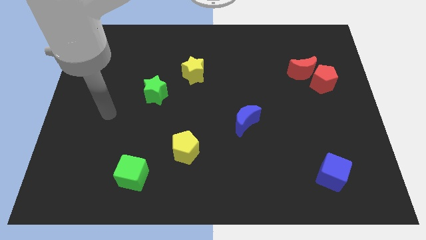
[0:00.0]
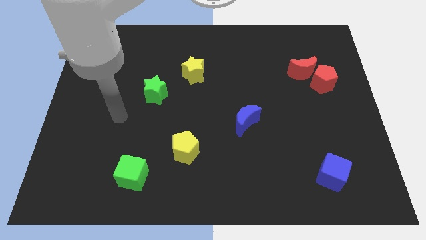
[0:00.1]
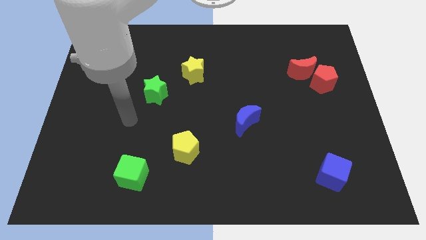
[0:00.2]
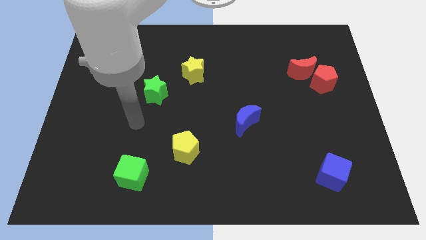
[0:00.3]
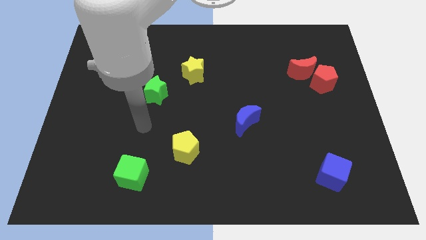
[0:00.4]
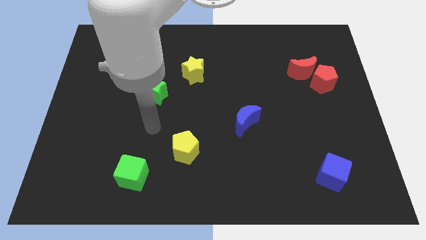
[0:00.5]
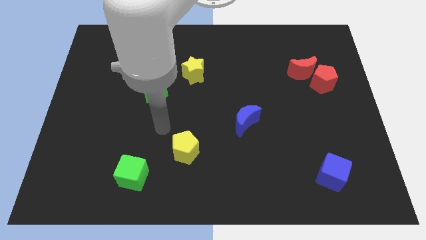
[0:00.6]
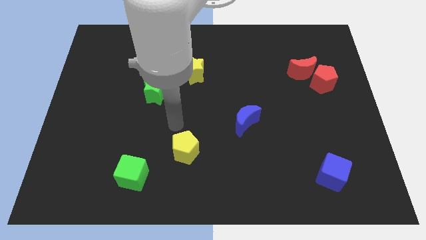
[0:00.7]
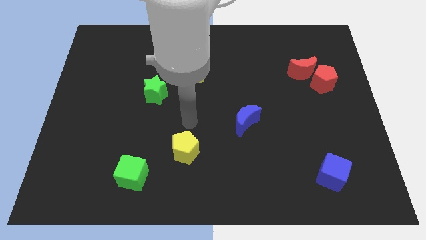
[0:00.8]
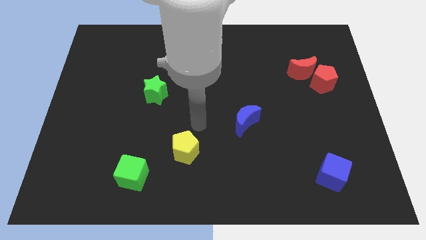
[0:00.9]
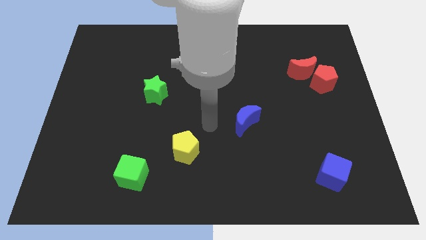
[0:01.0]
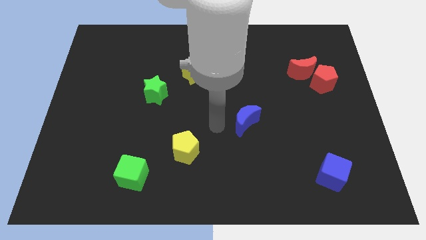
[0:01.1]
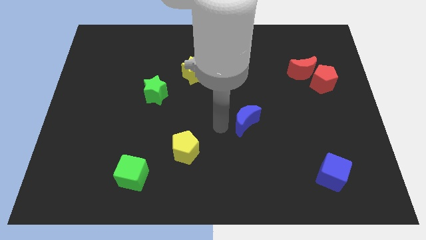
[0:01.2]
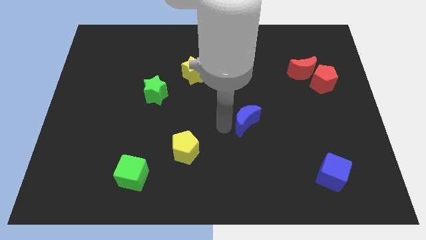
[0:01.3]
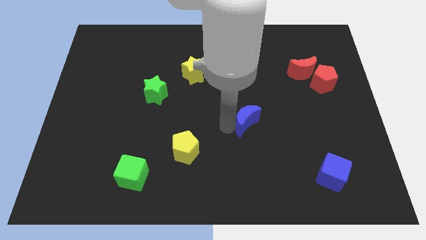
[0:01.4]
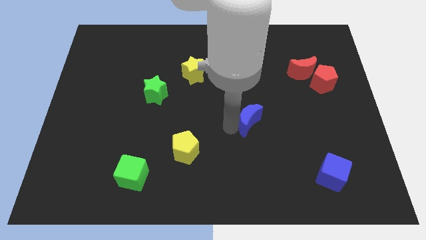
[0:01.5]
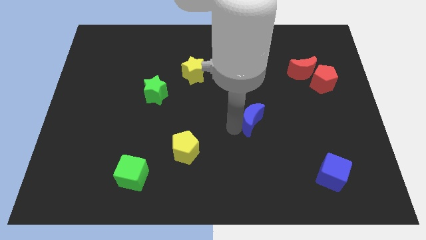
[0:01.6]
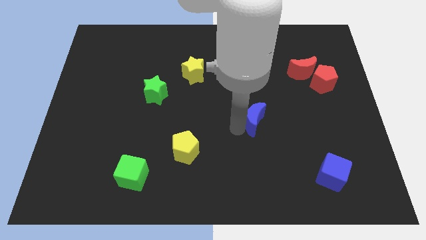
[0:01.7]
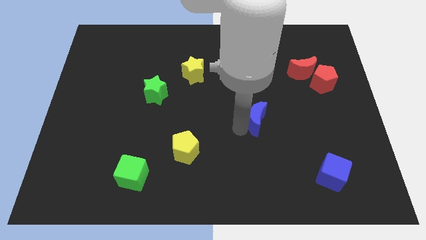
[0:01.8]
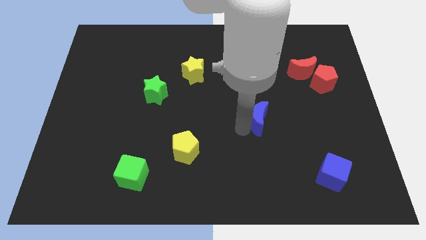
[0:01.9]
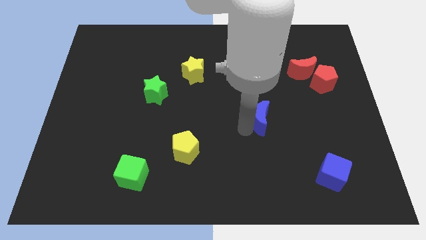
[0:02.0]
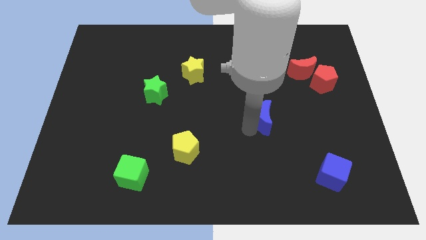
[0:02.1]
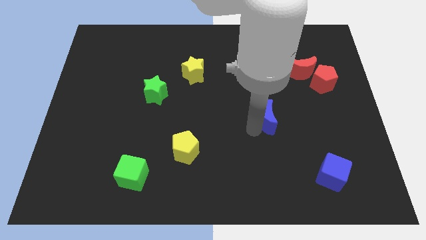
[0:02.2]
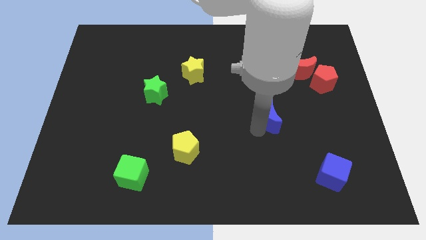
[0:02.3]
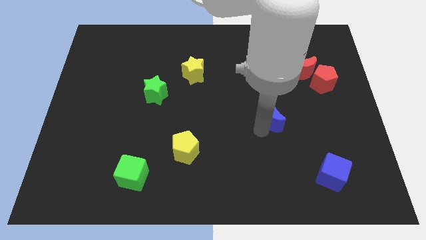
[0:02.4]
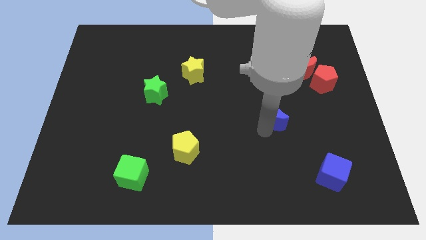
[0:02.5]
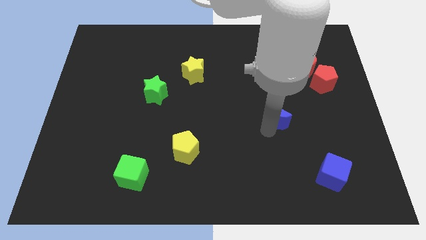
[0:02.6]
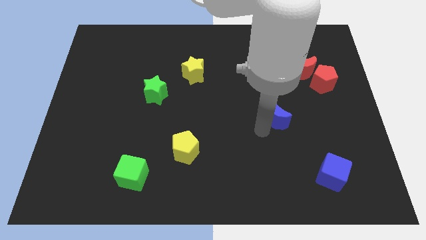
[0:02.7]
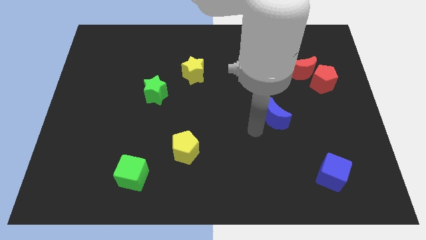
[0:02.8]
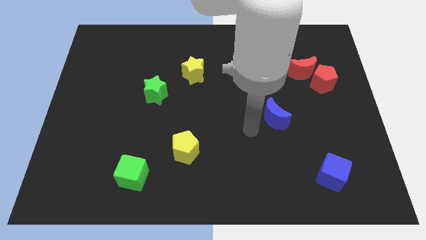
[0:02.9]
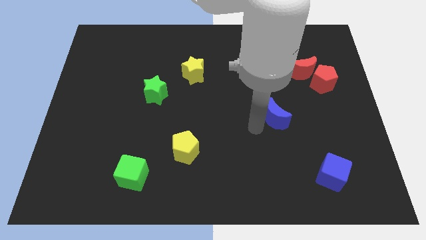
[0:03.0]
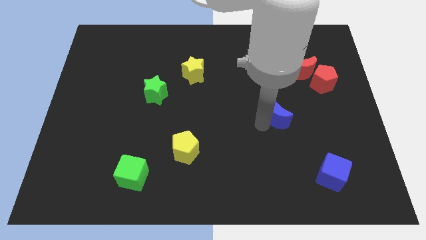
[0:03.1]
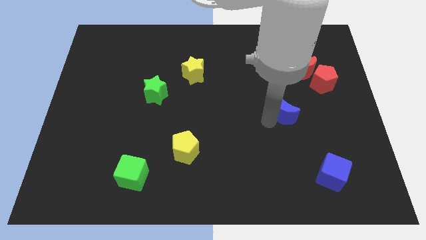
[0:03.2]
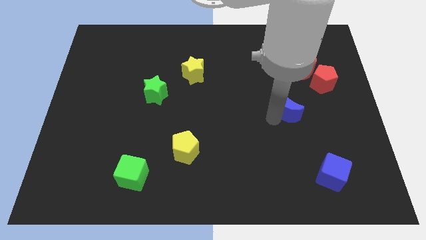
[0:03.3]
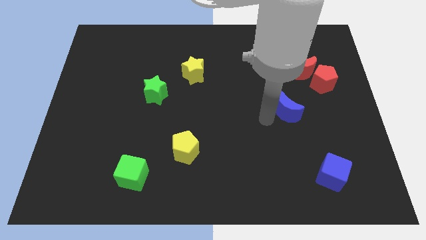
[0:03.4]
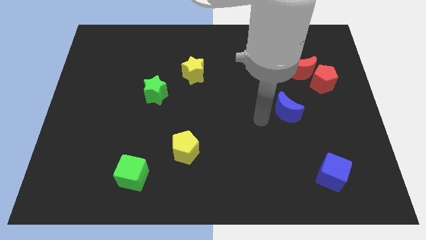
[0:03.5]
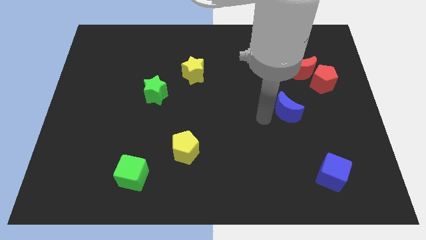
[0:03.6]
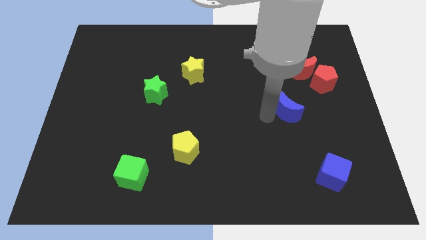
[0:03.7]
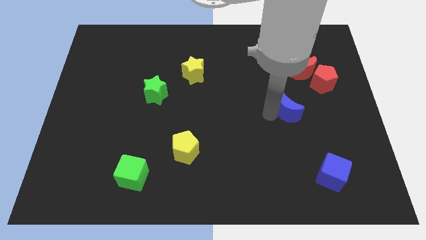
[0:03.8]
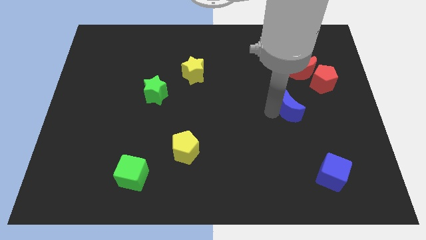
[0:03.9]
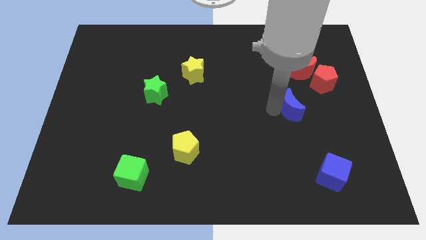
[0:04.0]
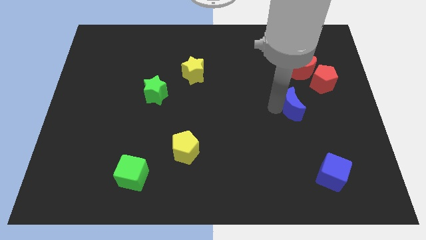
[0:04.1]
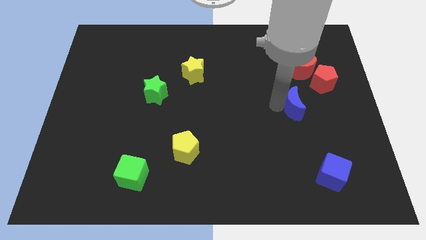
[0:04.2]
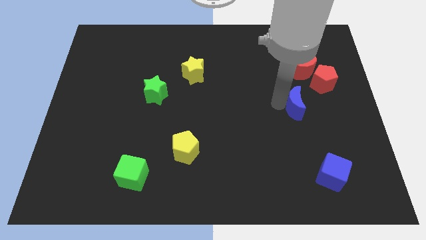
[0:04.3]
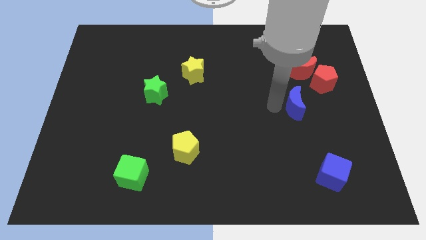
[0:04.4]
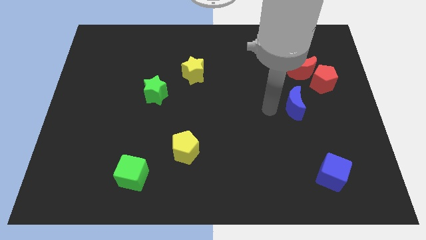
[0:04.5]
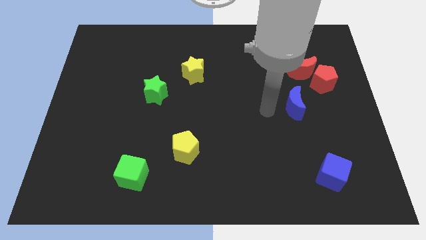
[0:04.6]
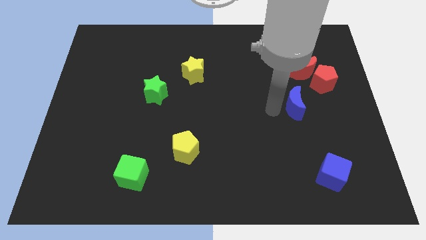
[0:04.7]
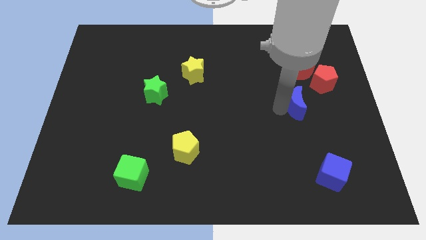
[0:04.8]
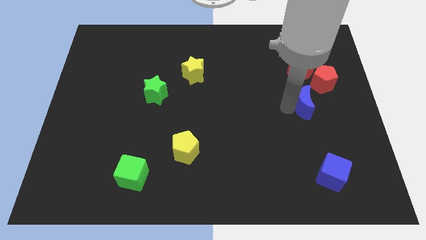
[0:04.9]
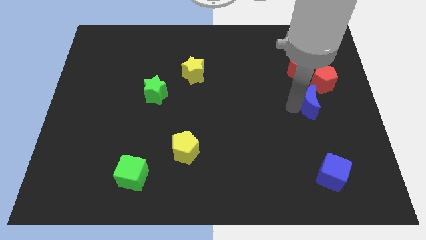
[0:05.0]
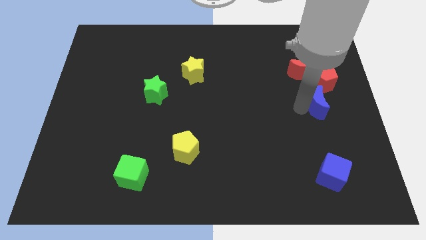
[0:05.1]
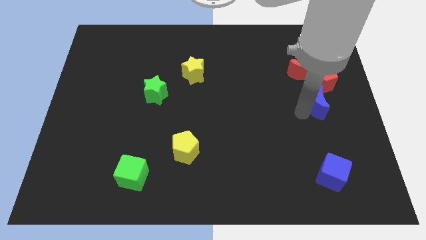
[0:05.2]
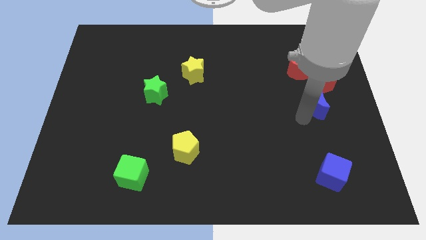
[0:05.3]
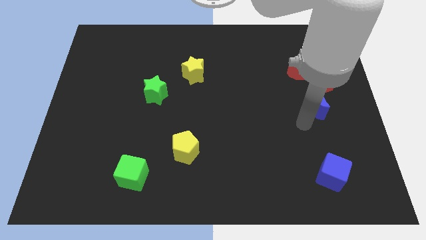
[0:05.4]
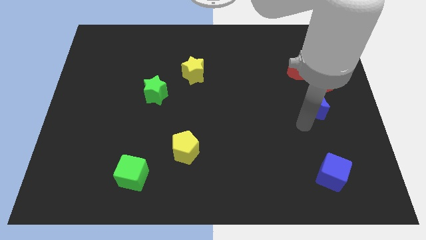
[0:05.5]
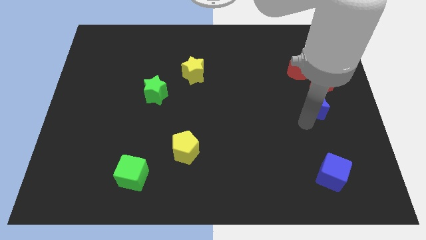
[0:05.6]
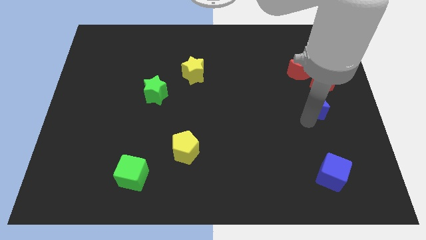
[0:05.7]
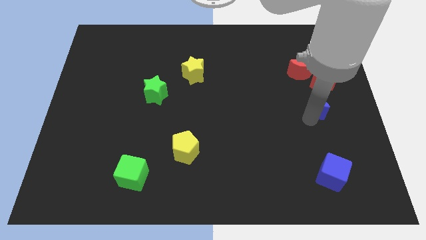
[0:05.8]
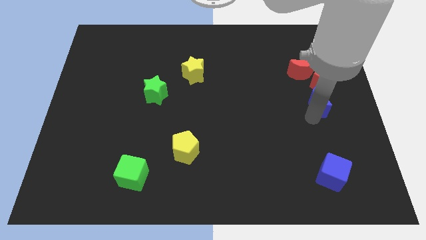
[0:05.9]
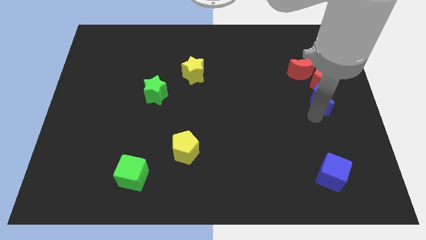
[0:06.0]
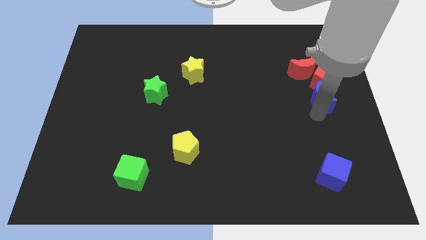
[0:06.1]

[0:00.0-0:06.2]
push the blue moon to the bottom right side of the red moon

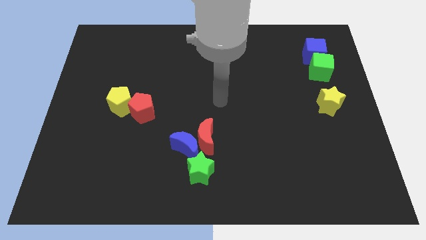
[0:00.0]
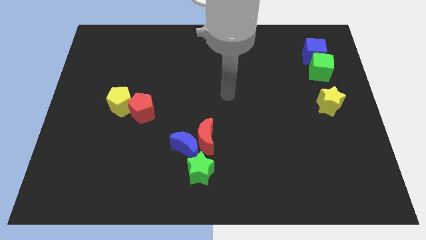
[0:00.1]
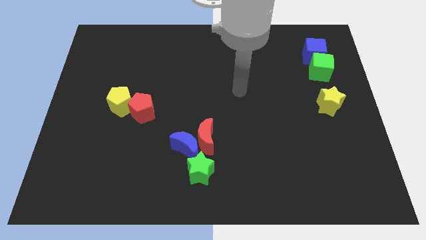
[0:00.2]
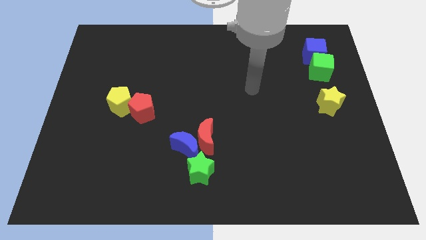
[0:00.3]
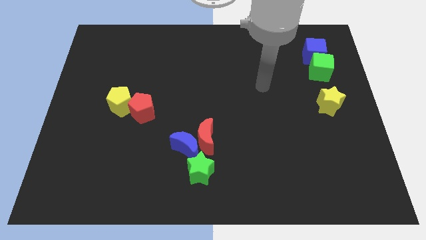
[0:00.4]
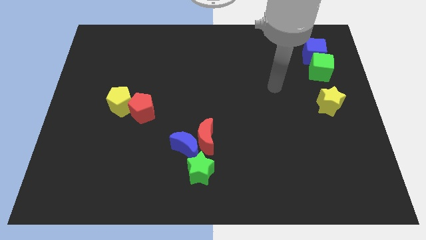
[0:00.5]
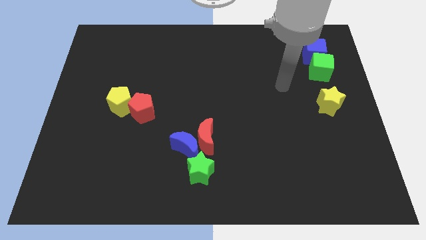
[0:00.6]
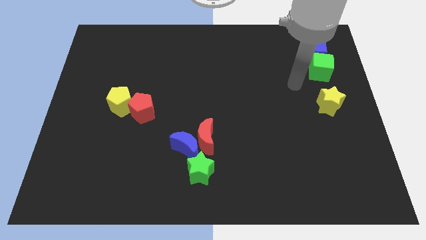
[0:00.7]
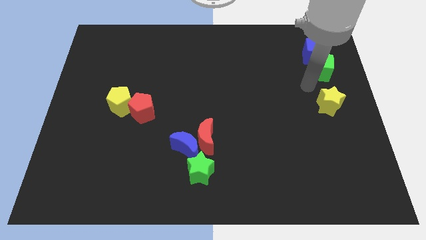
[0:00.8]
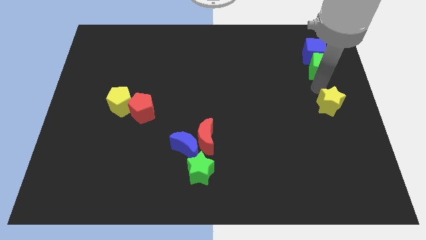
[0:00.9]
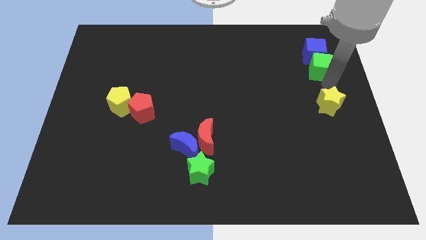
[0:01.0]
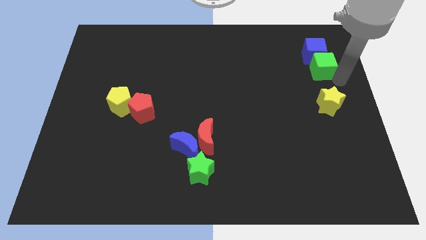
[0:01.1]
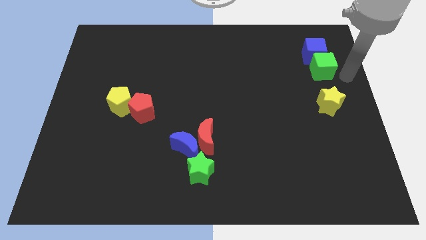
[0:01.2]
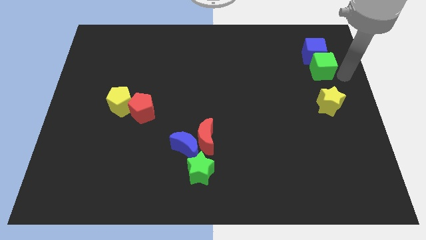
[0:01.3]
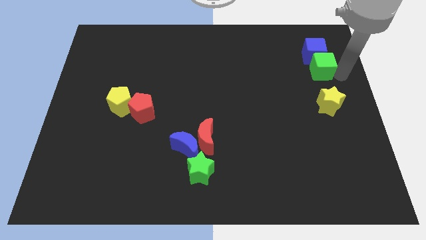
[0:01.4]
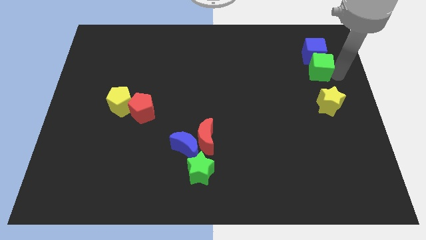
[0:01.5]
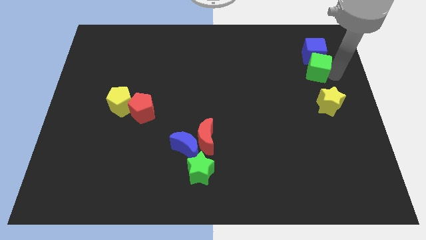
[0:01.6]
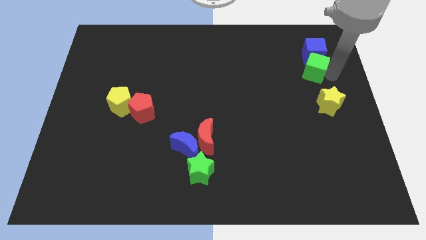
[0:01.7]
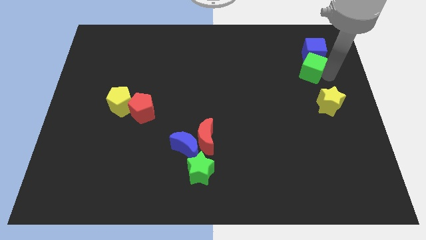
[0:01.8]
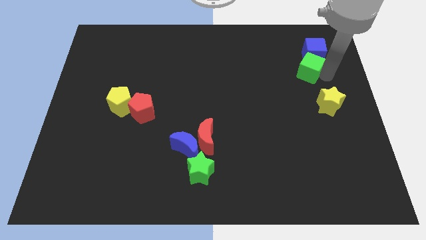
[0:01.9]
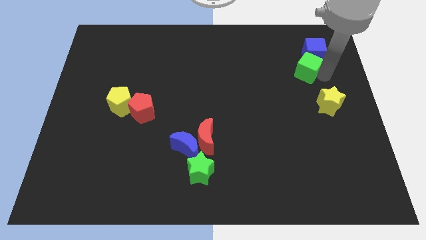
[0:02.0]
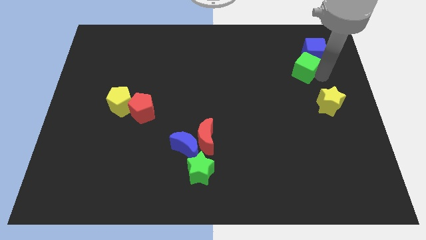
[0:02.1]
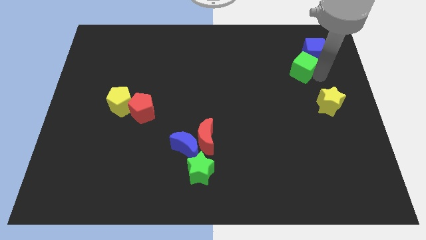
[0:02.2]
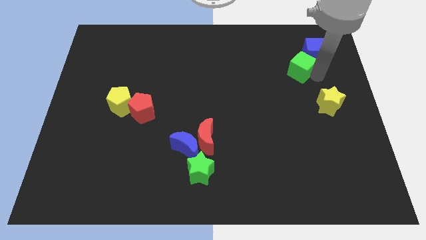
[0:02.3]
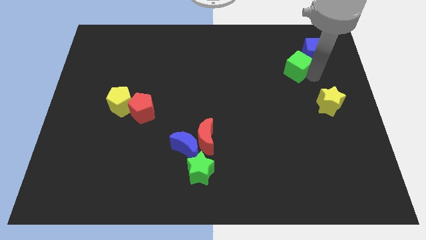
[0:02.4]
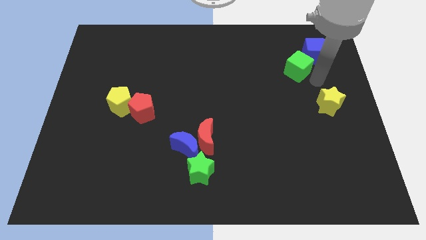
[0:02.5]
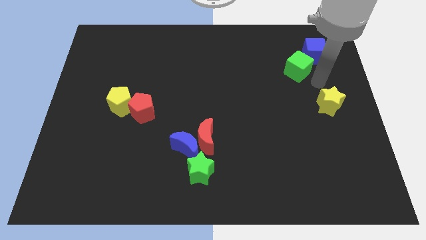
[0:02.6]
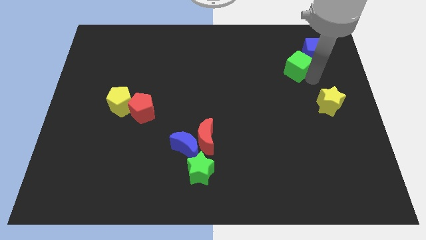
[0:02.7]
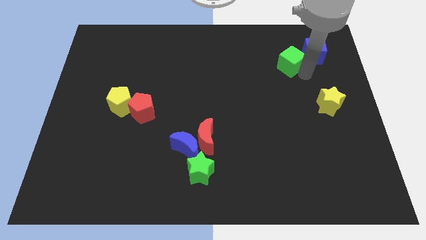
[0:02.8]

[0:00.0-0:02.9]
put the green cube just left of the blue cube
